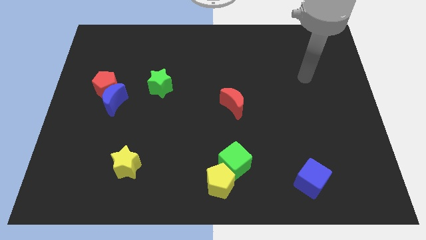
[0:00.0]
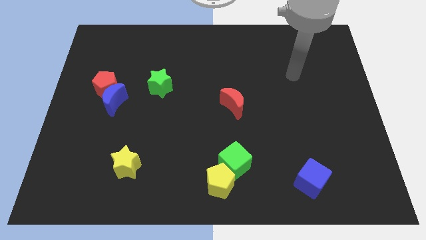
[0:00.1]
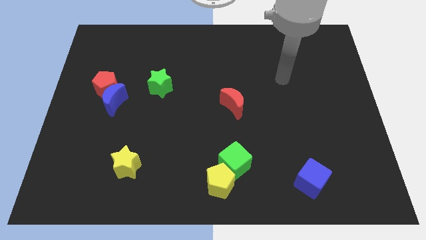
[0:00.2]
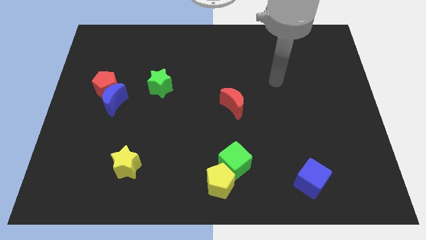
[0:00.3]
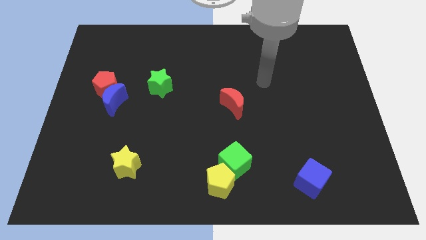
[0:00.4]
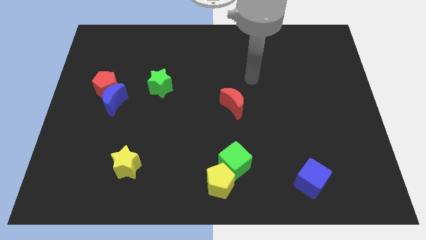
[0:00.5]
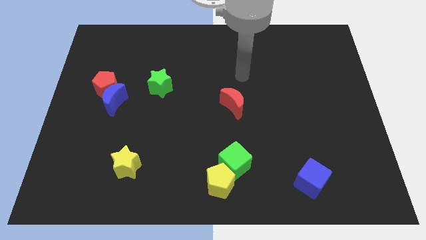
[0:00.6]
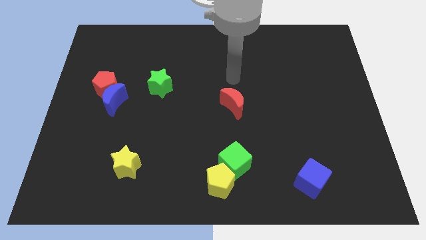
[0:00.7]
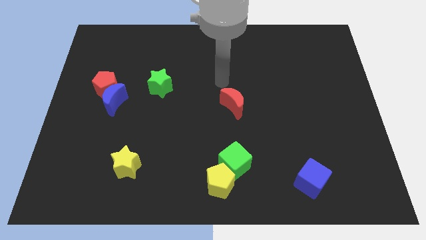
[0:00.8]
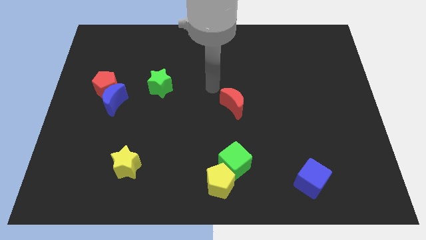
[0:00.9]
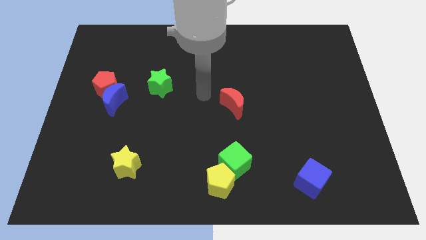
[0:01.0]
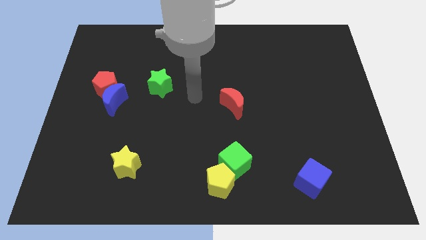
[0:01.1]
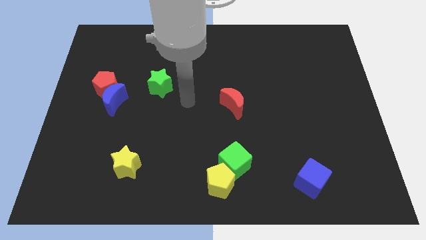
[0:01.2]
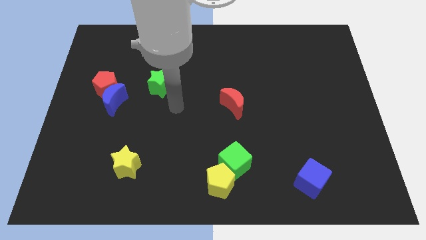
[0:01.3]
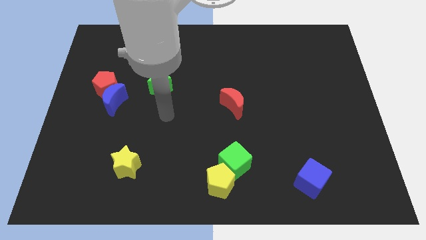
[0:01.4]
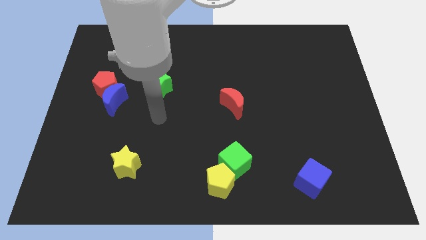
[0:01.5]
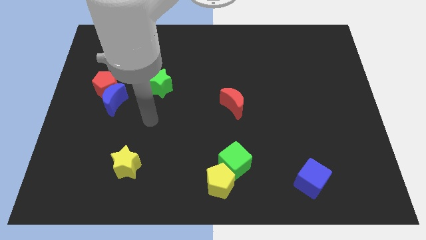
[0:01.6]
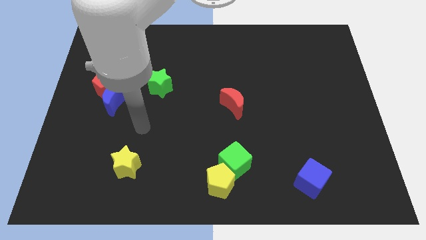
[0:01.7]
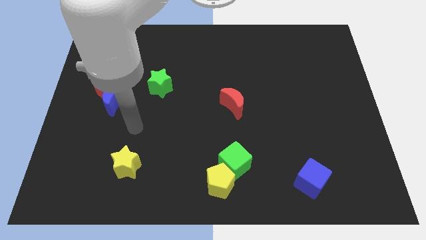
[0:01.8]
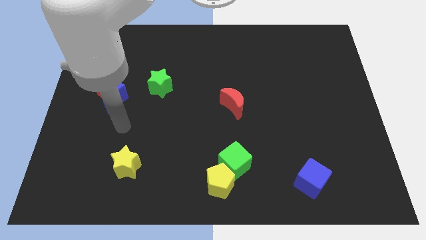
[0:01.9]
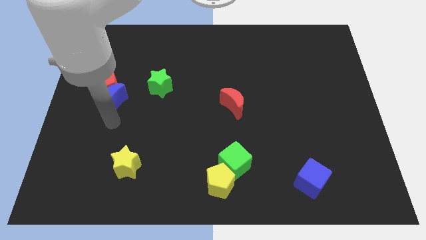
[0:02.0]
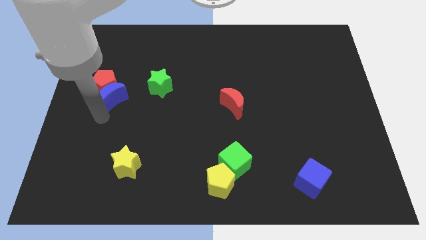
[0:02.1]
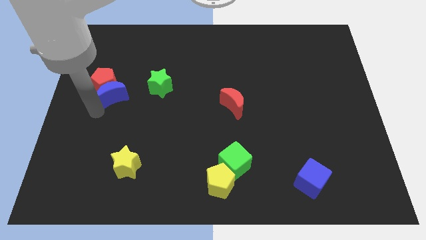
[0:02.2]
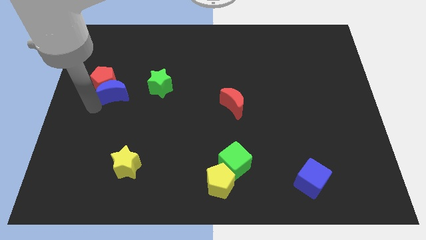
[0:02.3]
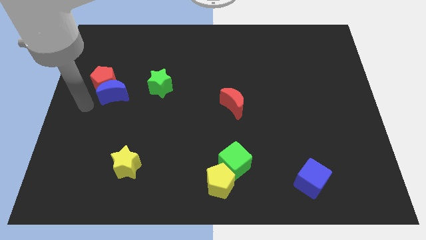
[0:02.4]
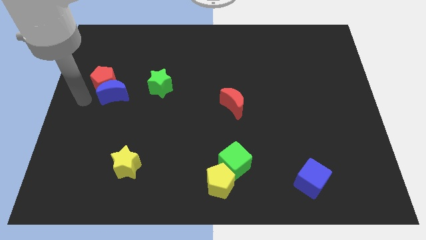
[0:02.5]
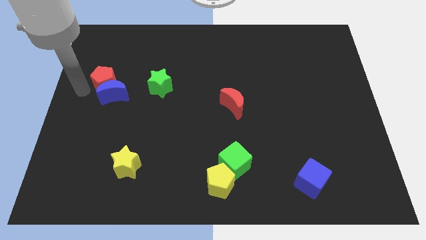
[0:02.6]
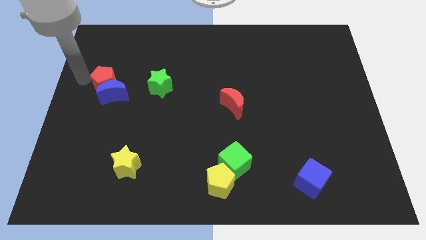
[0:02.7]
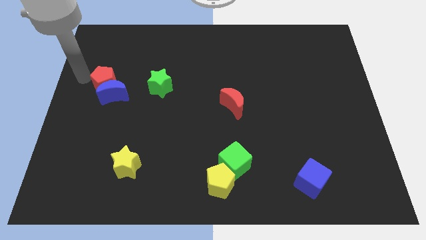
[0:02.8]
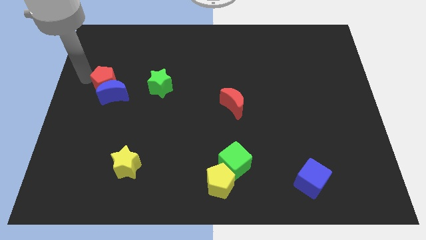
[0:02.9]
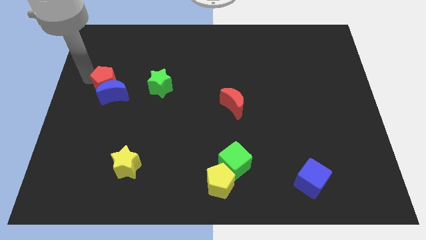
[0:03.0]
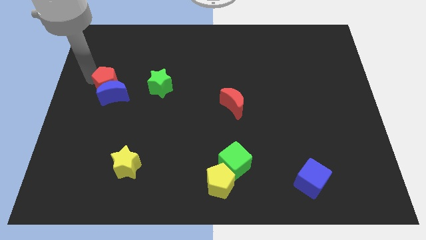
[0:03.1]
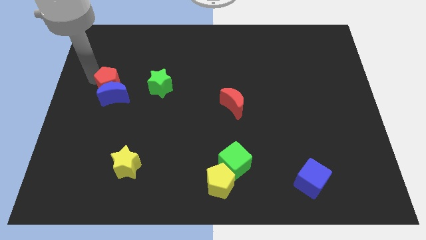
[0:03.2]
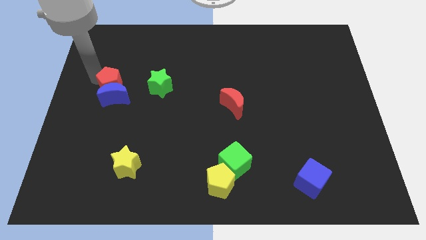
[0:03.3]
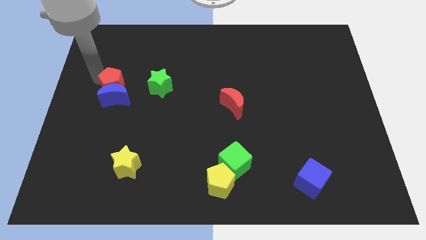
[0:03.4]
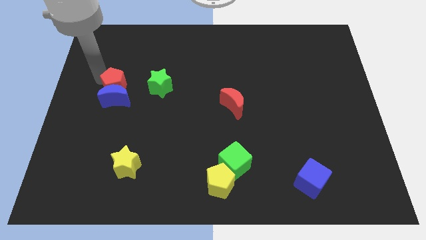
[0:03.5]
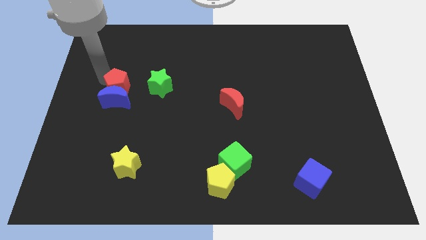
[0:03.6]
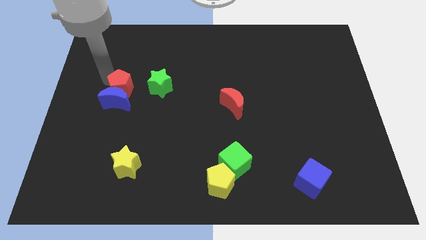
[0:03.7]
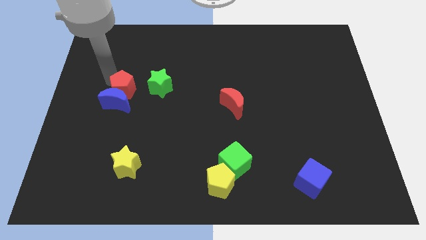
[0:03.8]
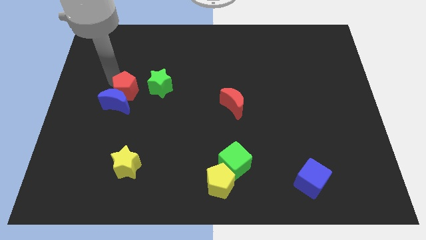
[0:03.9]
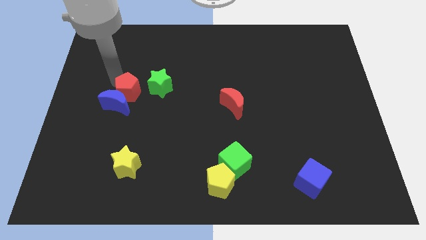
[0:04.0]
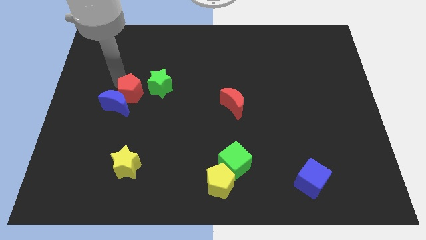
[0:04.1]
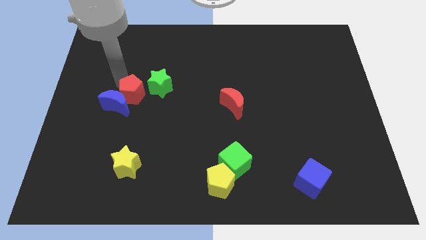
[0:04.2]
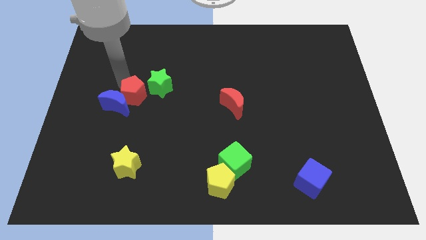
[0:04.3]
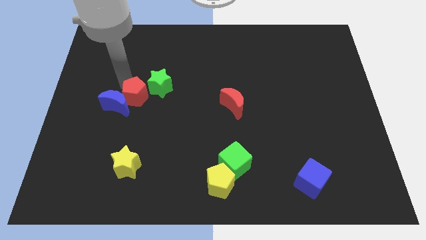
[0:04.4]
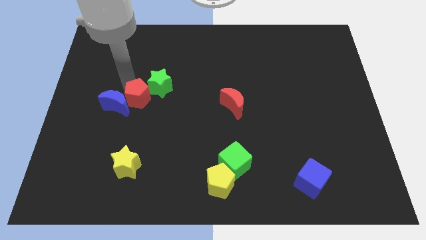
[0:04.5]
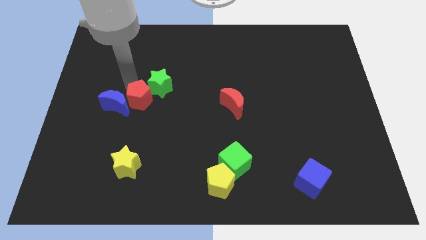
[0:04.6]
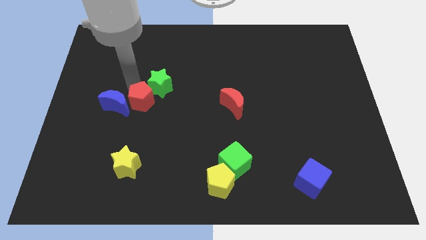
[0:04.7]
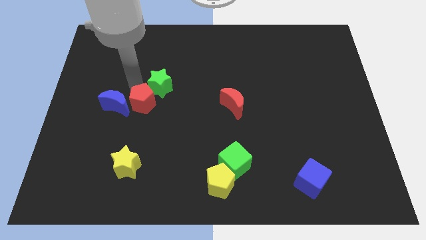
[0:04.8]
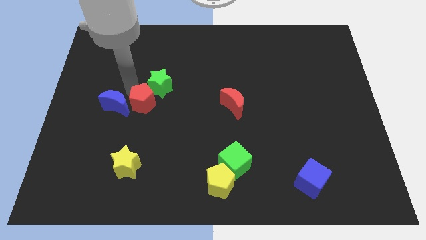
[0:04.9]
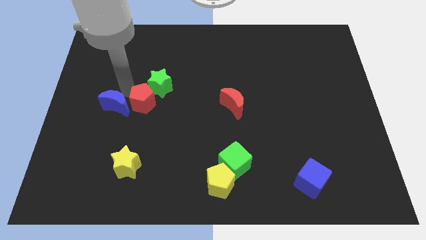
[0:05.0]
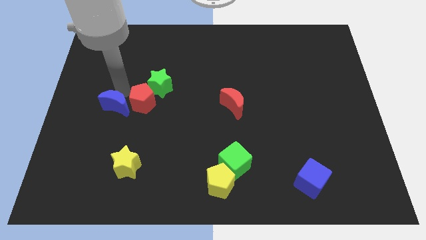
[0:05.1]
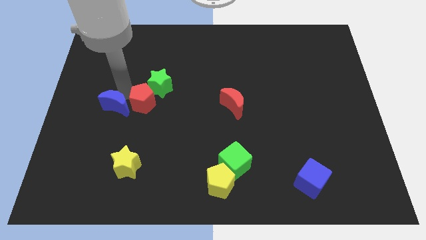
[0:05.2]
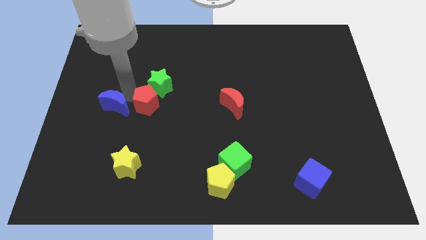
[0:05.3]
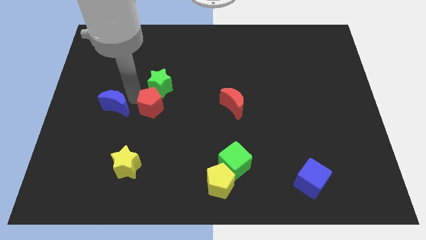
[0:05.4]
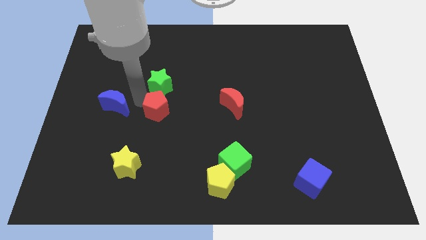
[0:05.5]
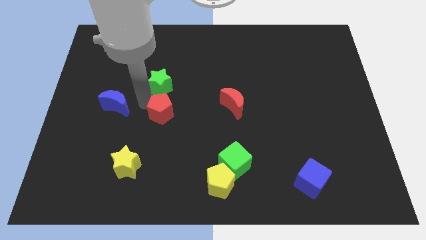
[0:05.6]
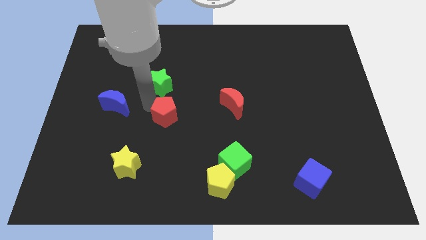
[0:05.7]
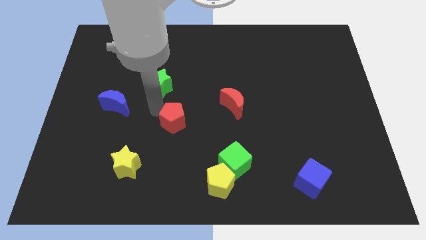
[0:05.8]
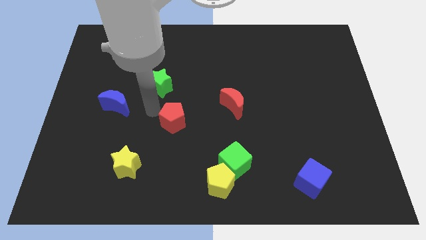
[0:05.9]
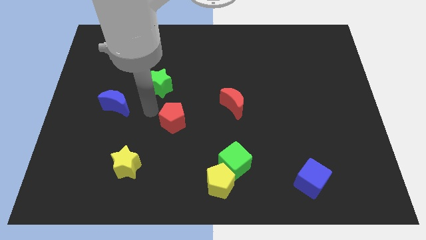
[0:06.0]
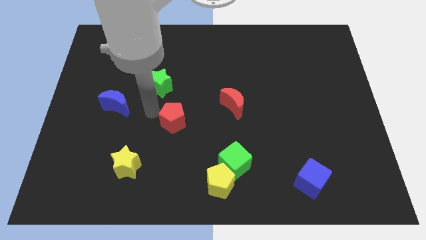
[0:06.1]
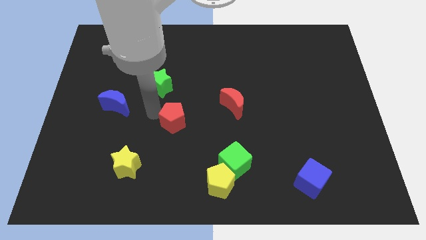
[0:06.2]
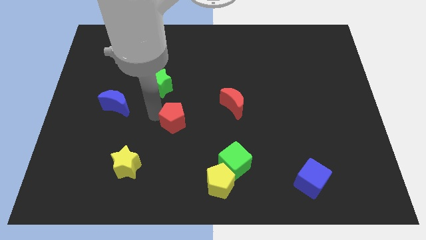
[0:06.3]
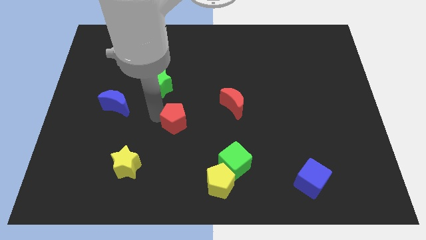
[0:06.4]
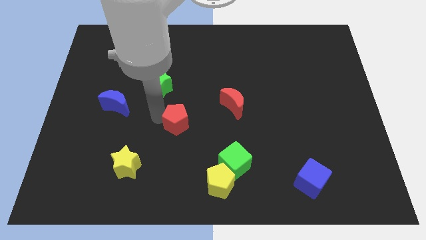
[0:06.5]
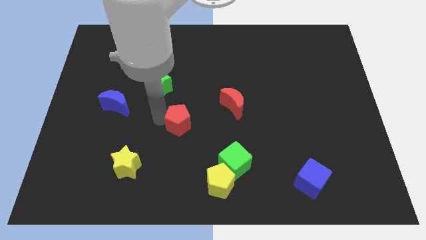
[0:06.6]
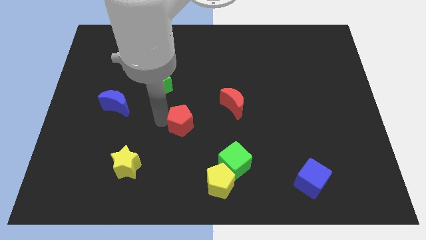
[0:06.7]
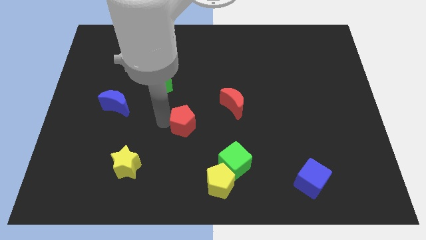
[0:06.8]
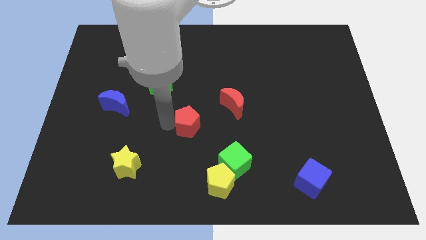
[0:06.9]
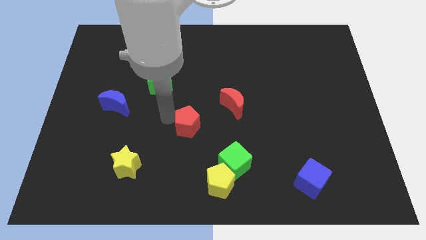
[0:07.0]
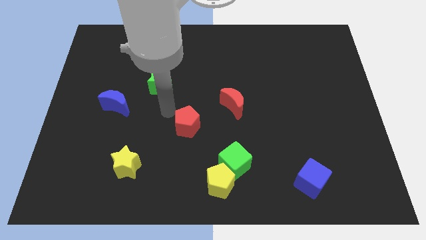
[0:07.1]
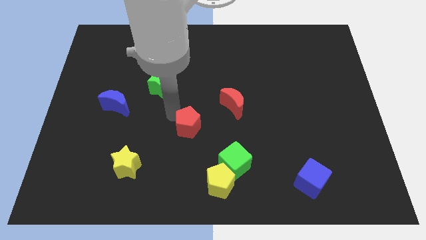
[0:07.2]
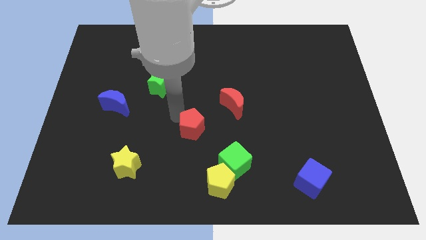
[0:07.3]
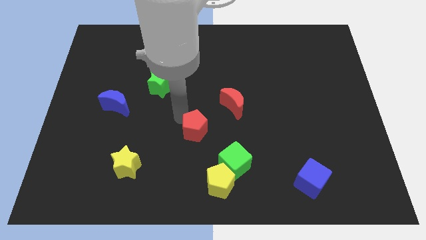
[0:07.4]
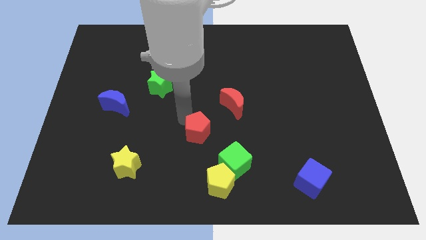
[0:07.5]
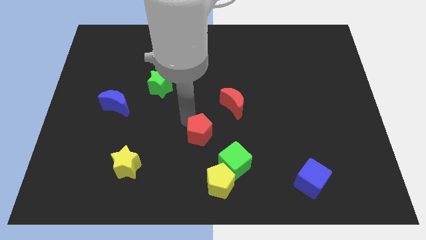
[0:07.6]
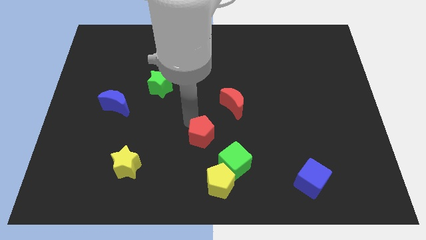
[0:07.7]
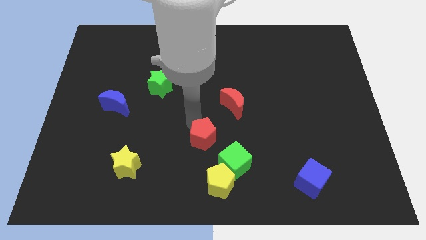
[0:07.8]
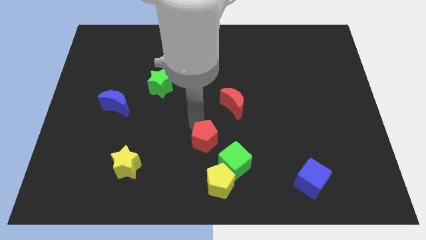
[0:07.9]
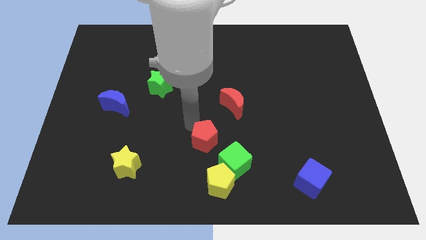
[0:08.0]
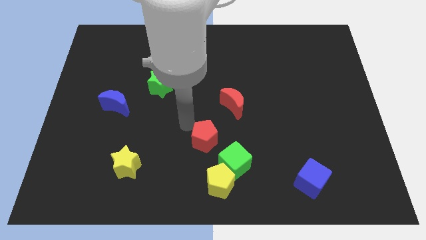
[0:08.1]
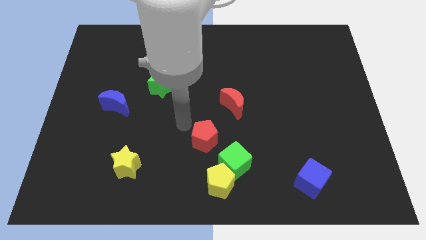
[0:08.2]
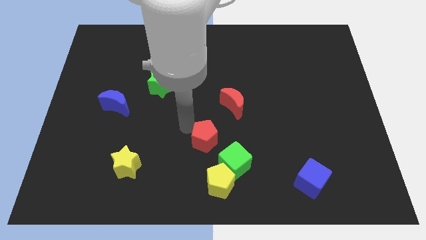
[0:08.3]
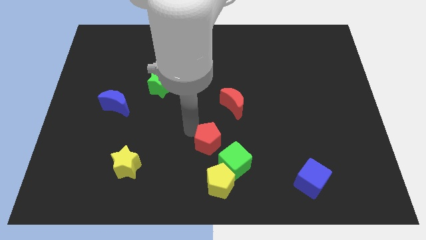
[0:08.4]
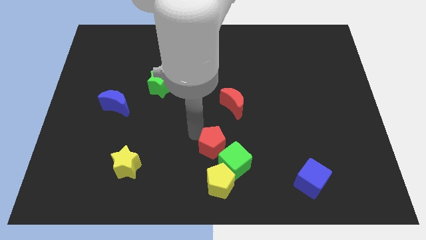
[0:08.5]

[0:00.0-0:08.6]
slide the red pentagon to the green cube
